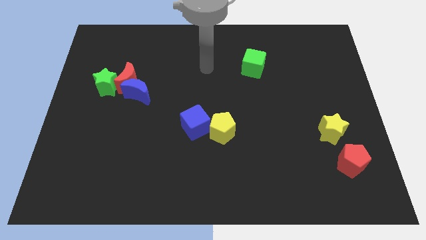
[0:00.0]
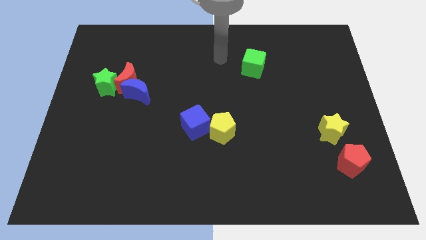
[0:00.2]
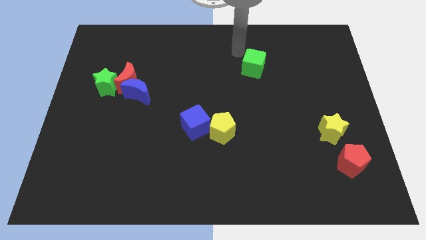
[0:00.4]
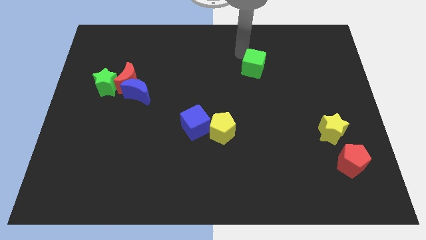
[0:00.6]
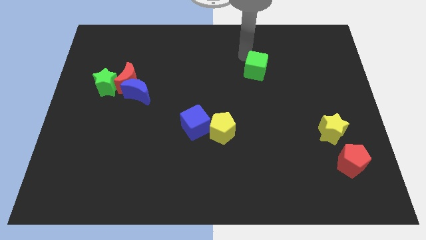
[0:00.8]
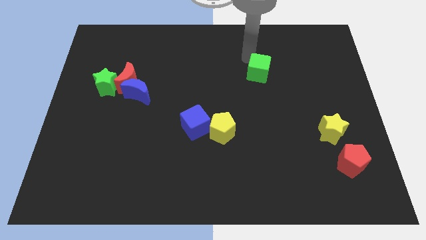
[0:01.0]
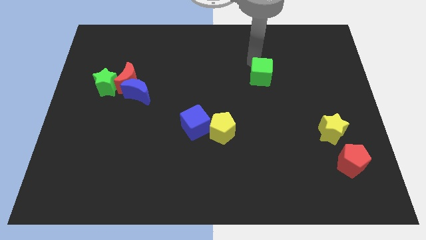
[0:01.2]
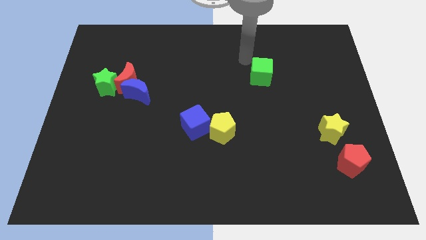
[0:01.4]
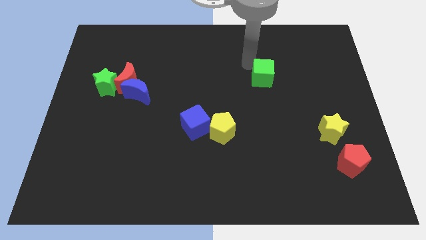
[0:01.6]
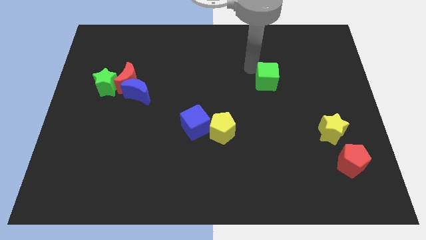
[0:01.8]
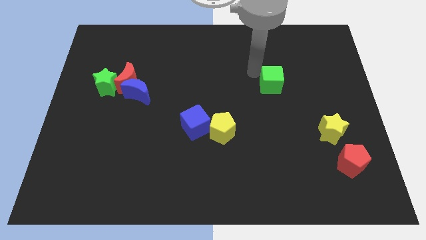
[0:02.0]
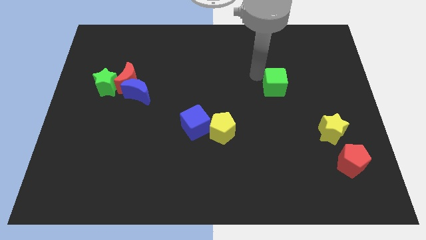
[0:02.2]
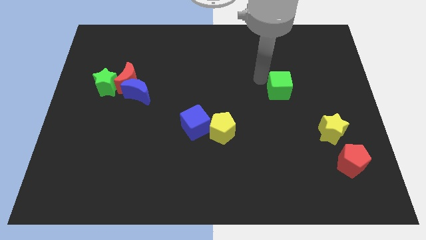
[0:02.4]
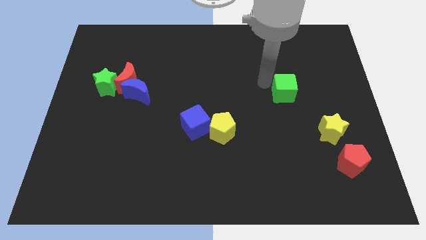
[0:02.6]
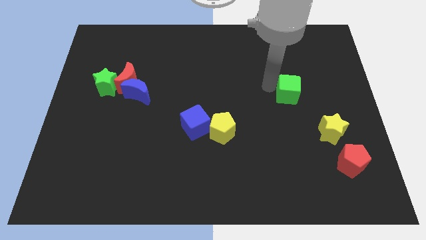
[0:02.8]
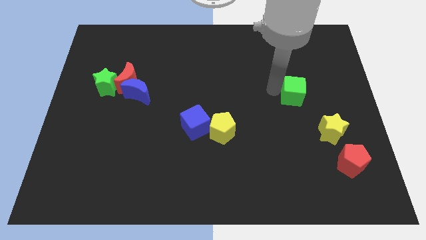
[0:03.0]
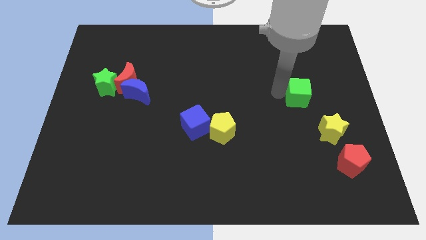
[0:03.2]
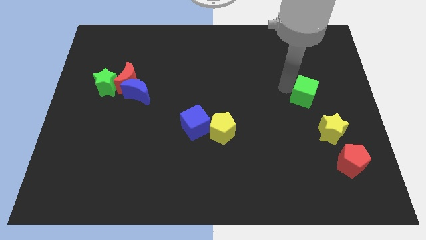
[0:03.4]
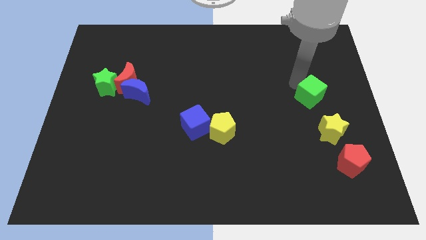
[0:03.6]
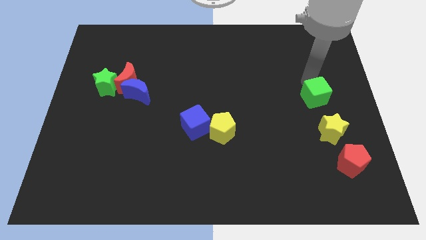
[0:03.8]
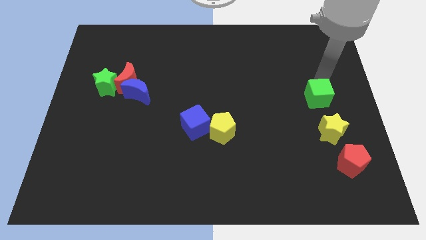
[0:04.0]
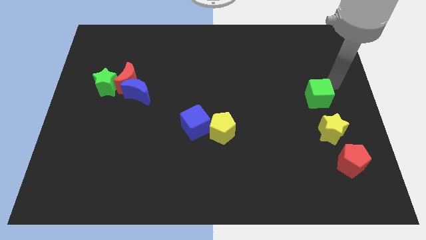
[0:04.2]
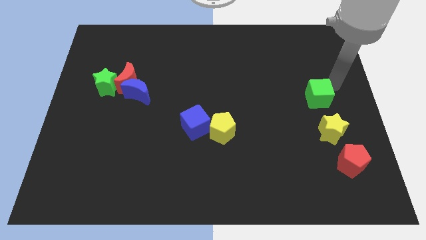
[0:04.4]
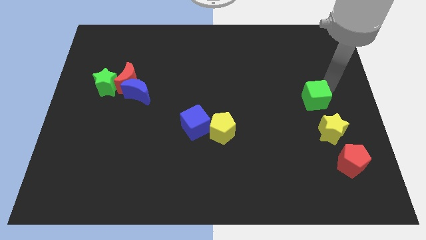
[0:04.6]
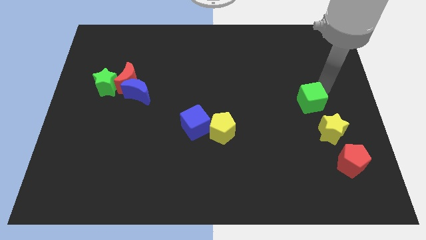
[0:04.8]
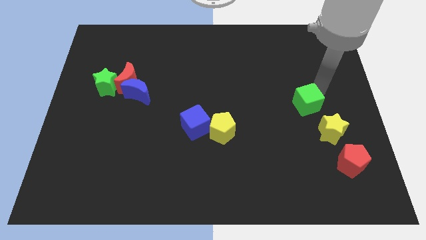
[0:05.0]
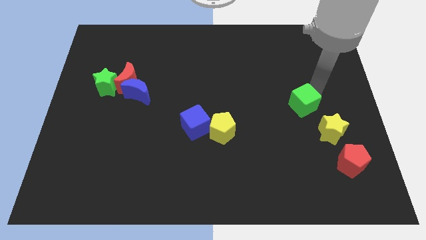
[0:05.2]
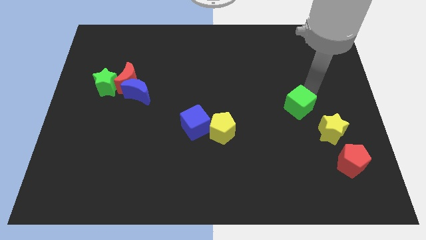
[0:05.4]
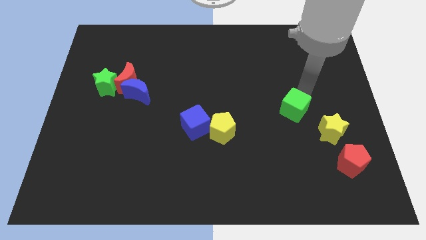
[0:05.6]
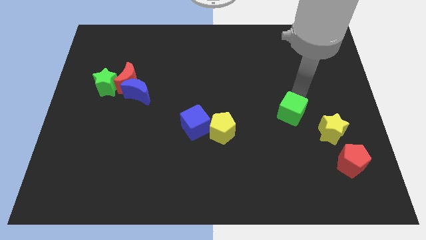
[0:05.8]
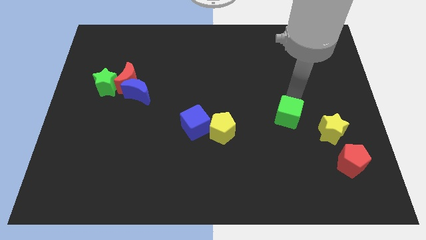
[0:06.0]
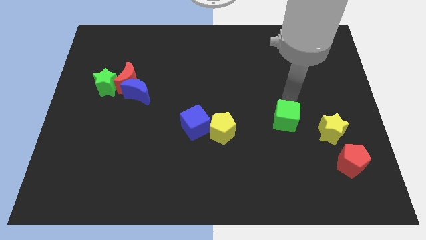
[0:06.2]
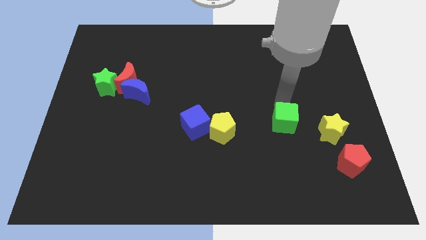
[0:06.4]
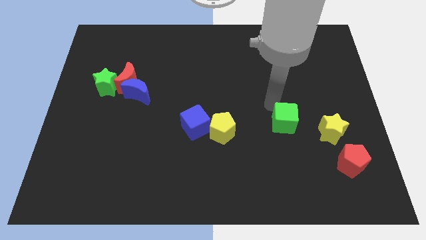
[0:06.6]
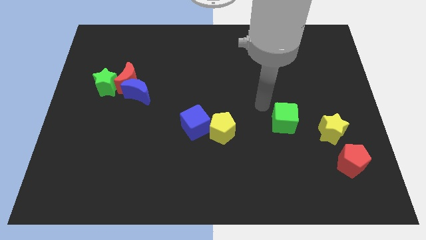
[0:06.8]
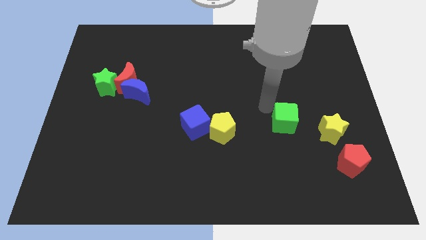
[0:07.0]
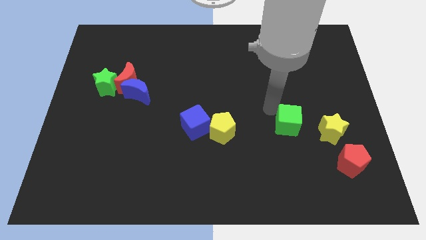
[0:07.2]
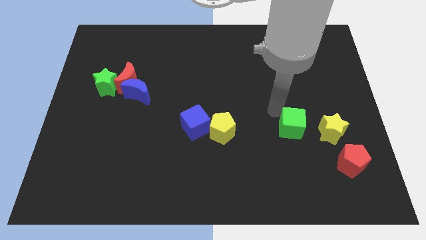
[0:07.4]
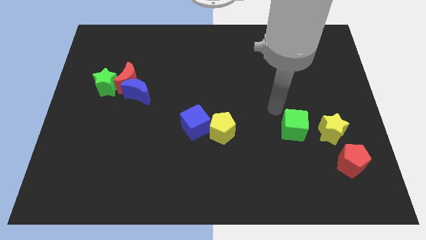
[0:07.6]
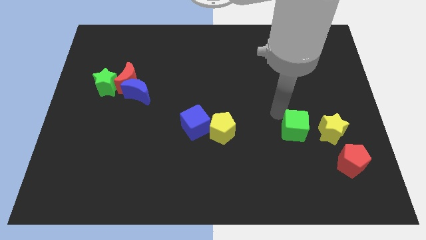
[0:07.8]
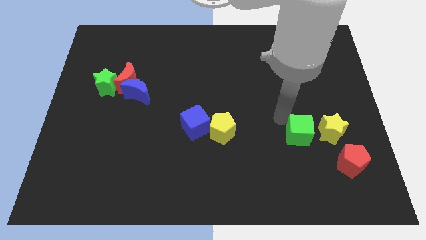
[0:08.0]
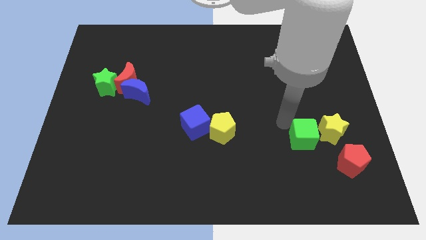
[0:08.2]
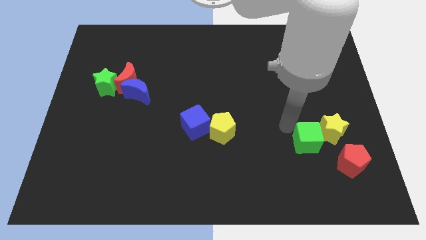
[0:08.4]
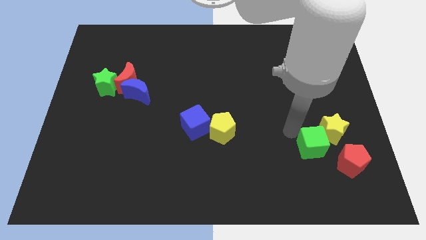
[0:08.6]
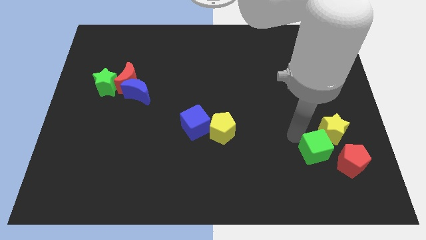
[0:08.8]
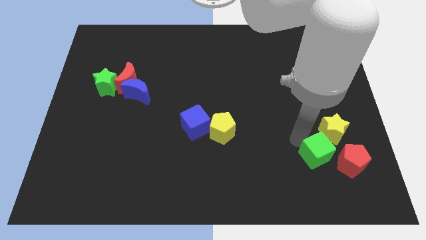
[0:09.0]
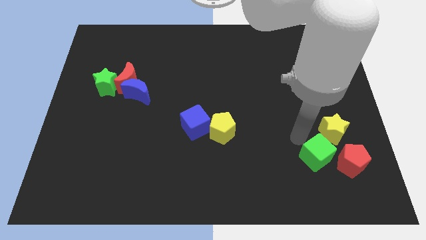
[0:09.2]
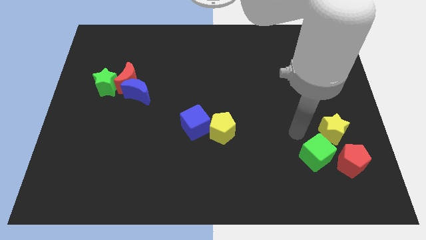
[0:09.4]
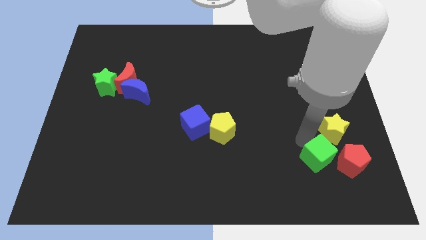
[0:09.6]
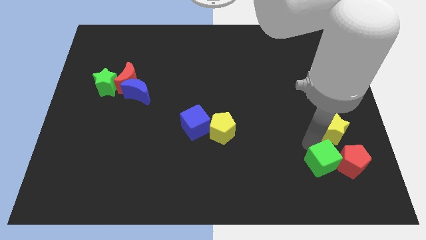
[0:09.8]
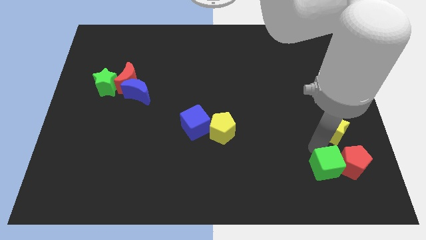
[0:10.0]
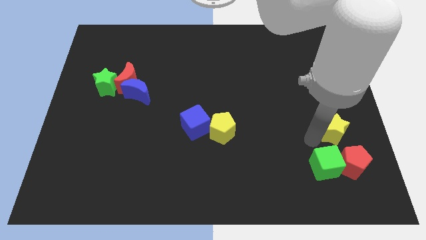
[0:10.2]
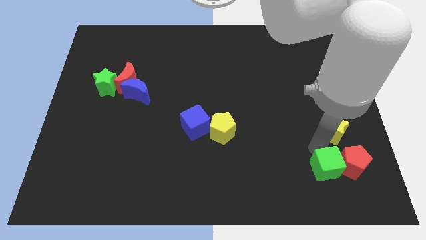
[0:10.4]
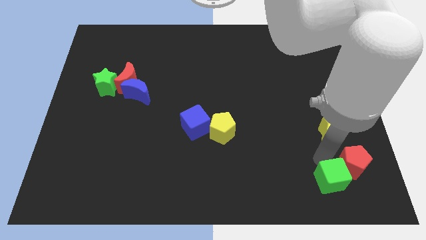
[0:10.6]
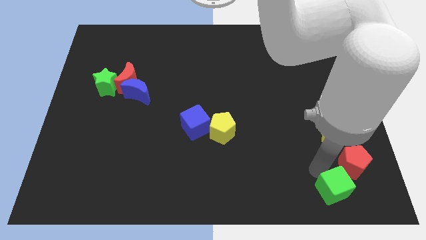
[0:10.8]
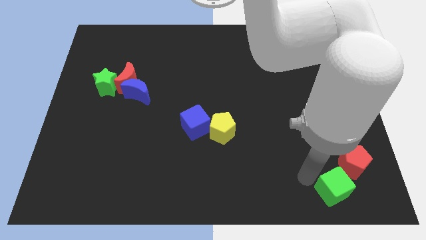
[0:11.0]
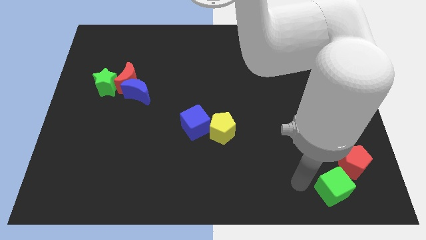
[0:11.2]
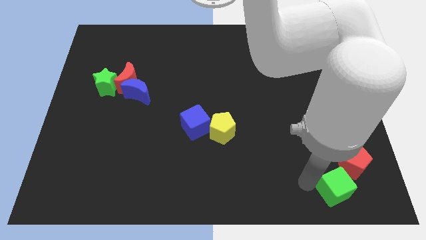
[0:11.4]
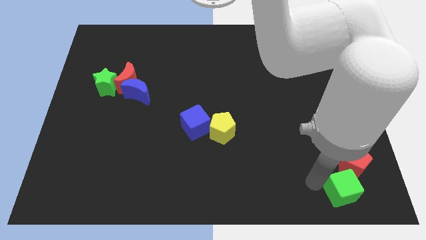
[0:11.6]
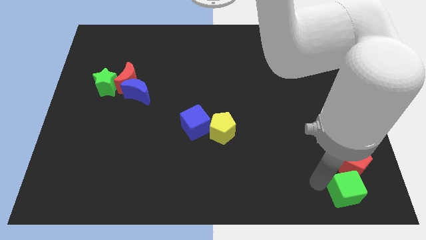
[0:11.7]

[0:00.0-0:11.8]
push the green cube to the bottom right corner
